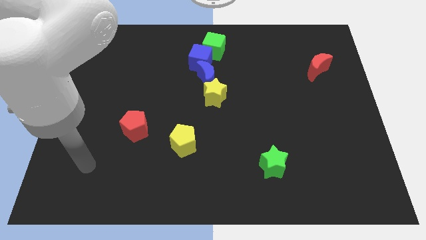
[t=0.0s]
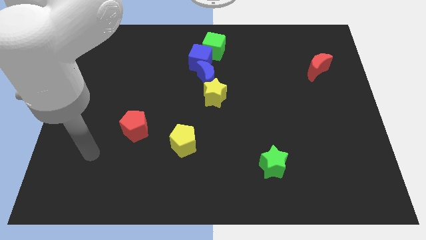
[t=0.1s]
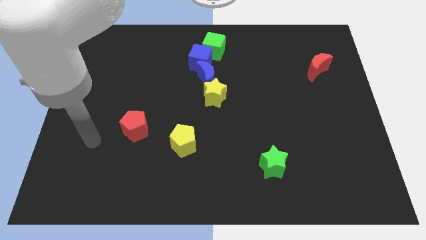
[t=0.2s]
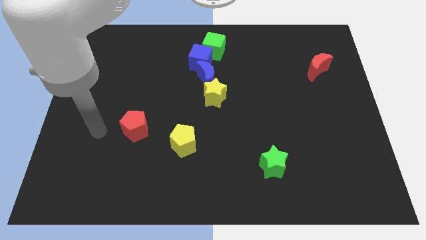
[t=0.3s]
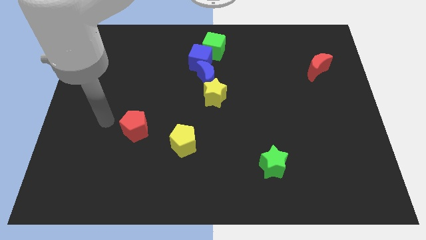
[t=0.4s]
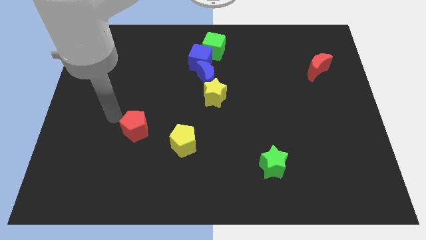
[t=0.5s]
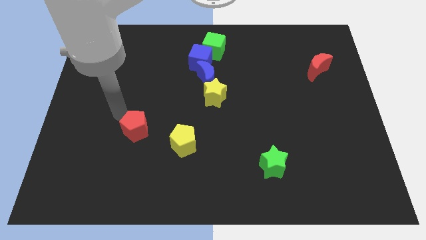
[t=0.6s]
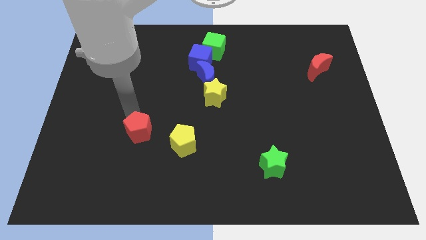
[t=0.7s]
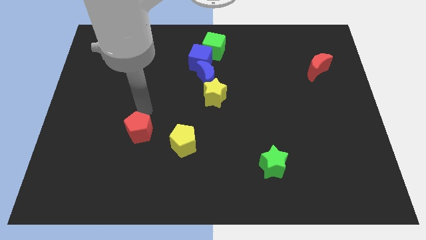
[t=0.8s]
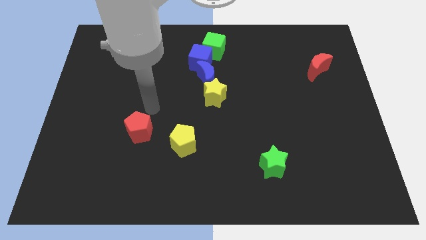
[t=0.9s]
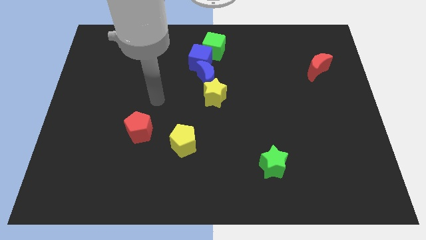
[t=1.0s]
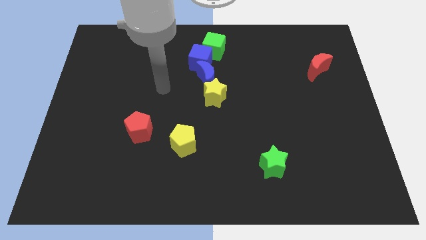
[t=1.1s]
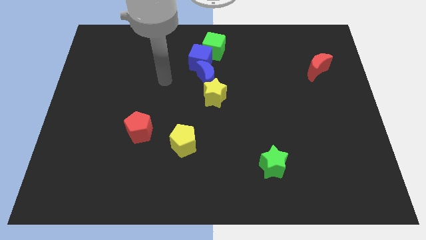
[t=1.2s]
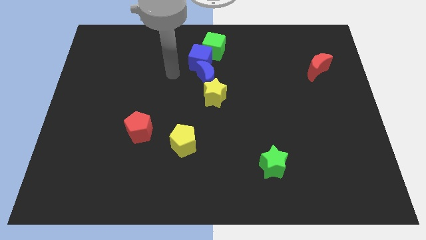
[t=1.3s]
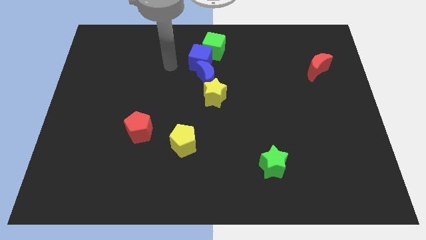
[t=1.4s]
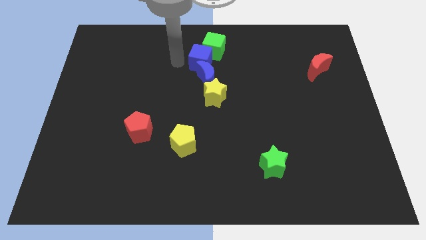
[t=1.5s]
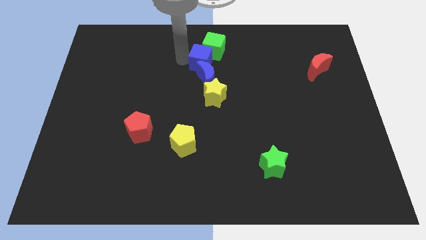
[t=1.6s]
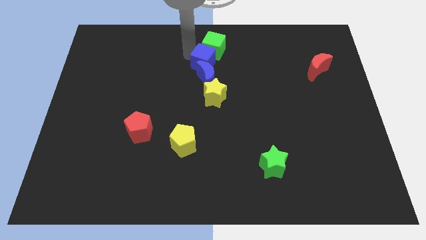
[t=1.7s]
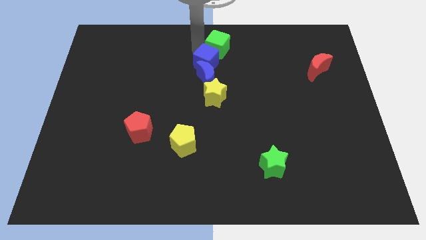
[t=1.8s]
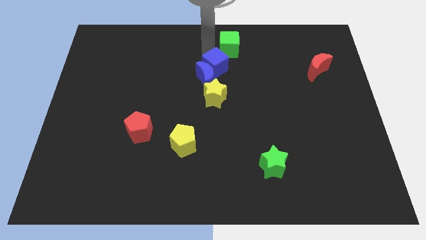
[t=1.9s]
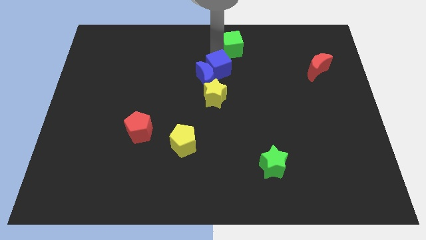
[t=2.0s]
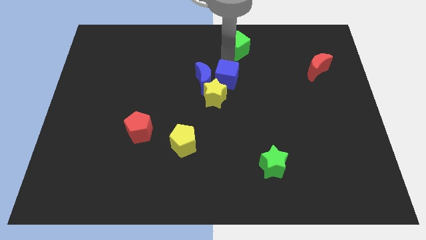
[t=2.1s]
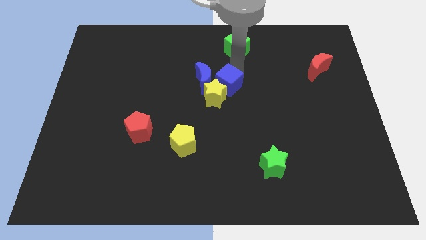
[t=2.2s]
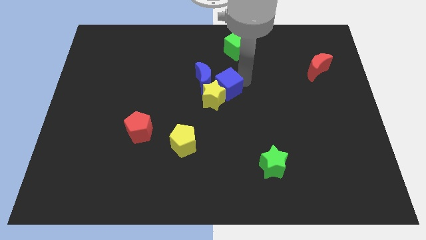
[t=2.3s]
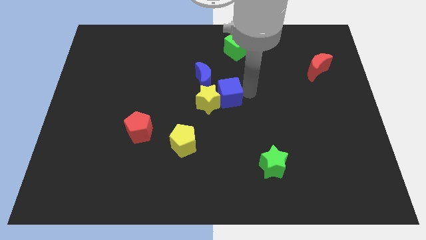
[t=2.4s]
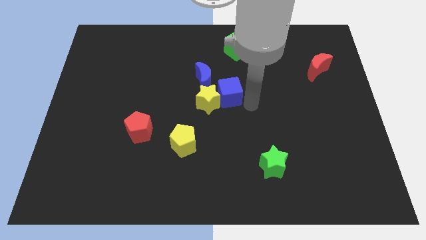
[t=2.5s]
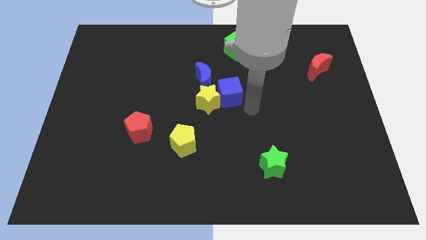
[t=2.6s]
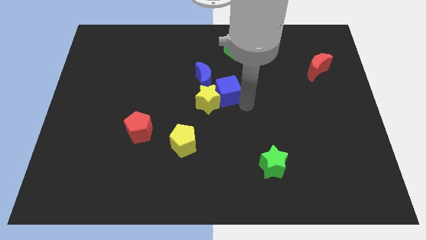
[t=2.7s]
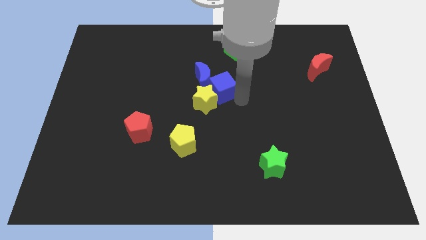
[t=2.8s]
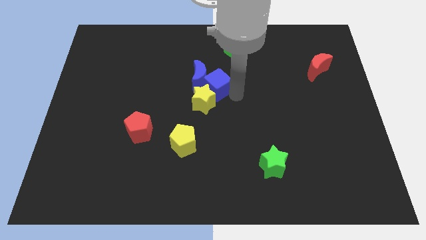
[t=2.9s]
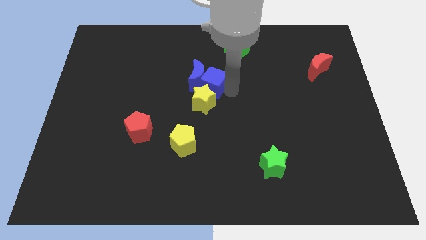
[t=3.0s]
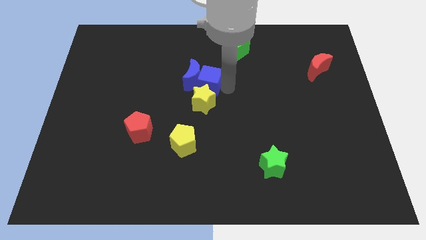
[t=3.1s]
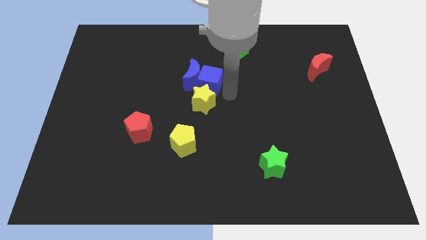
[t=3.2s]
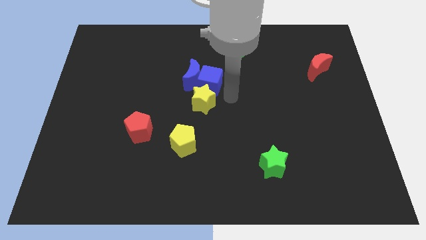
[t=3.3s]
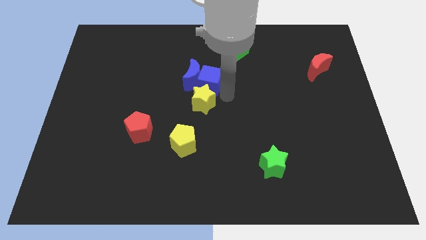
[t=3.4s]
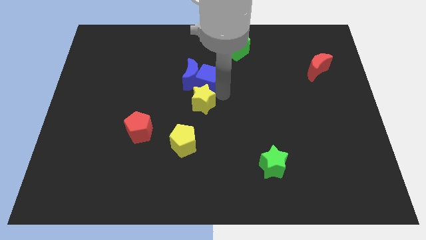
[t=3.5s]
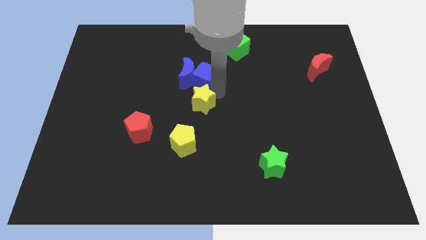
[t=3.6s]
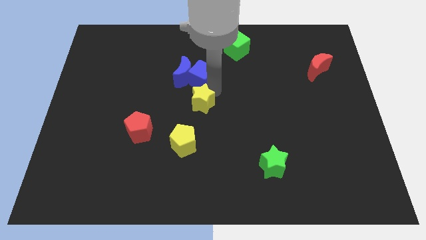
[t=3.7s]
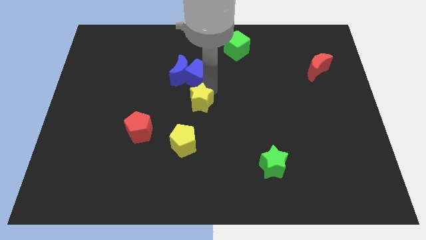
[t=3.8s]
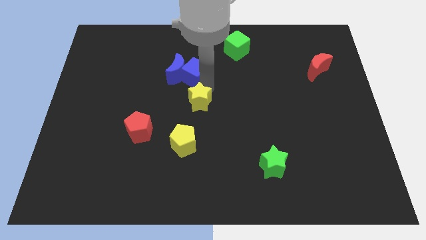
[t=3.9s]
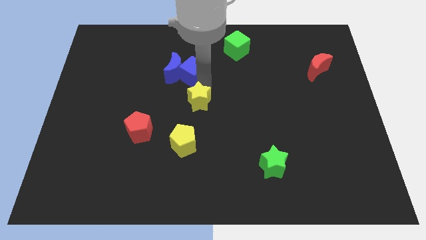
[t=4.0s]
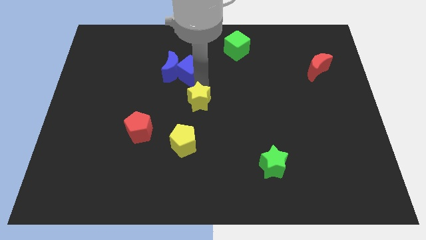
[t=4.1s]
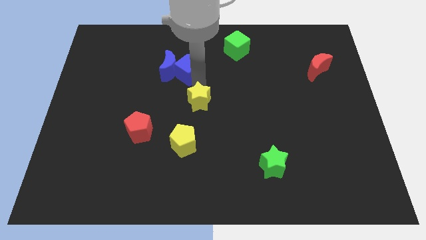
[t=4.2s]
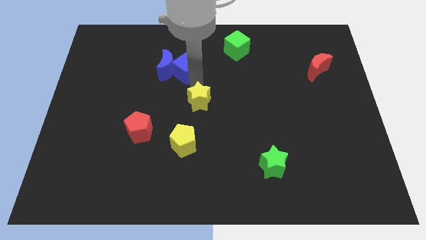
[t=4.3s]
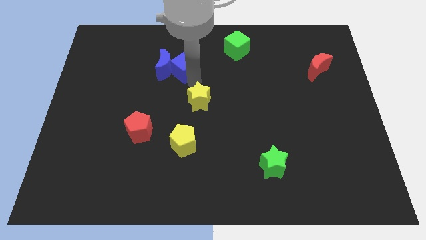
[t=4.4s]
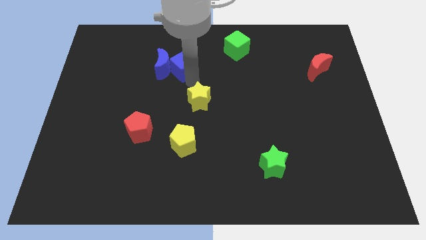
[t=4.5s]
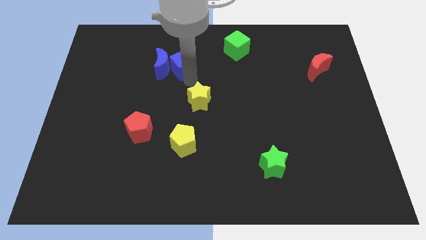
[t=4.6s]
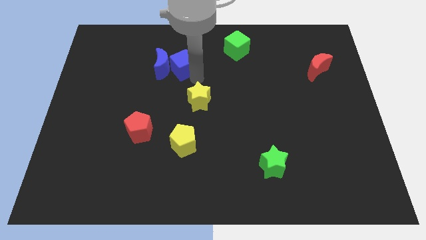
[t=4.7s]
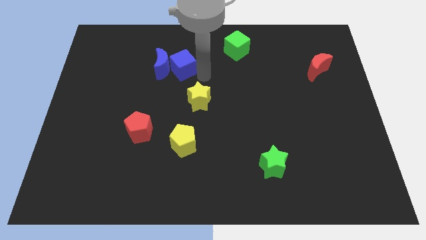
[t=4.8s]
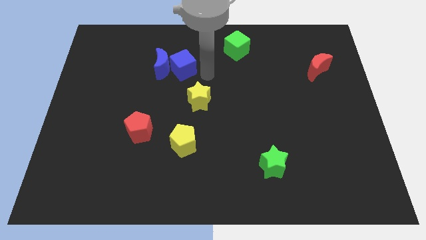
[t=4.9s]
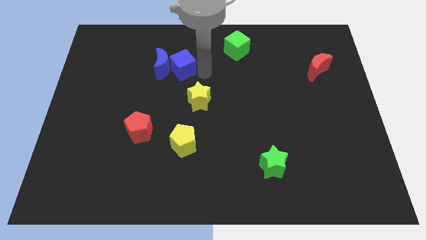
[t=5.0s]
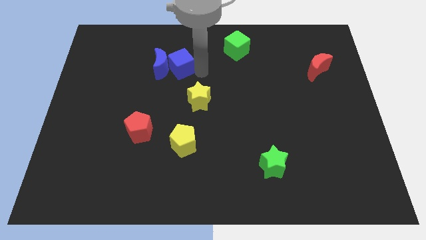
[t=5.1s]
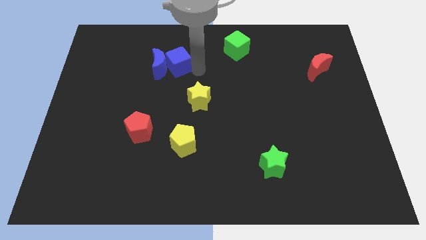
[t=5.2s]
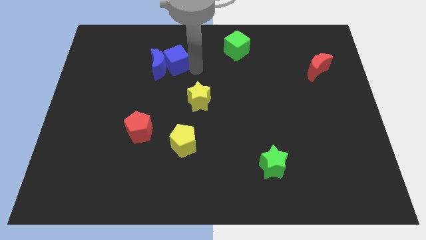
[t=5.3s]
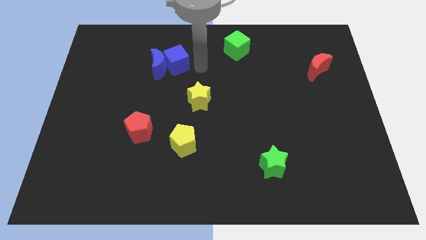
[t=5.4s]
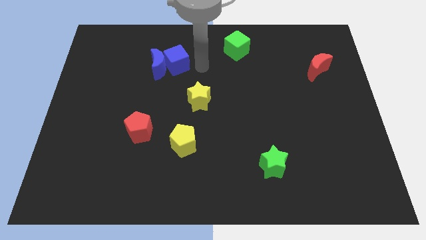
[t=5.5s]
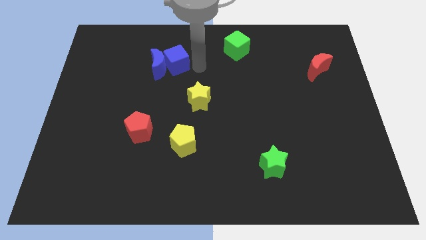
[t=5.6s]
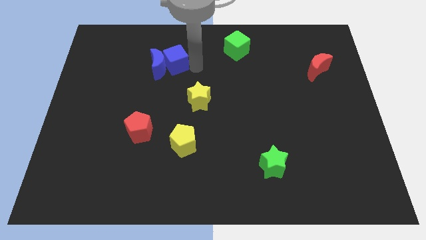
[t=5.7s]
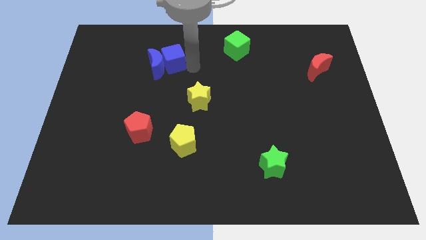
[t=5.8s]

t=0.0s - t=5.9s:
slightly slide the blue cube to the left

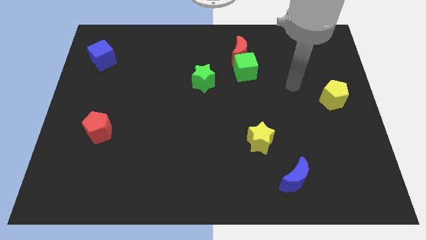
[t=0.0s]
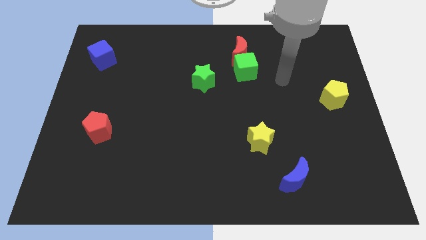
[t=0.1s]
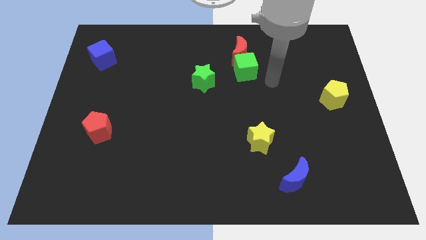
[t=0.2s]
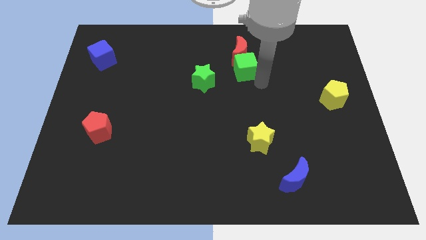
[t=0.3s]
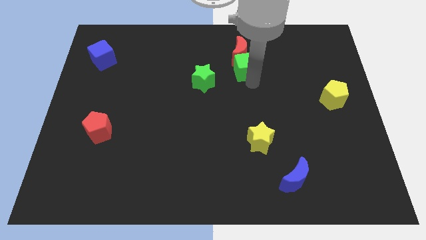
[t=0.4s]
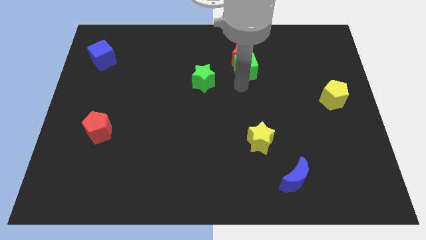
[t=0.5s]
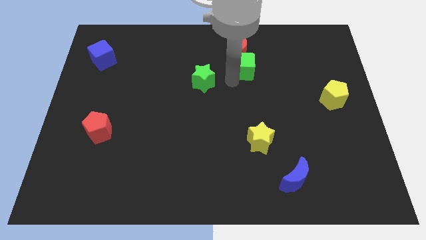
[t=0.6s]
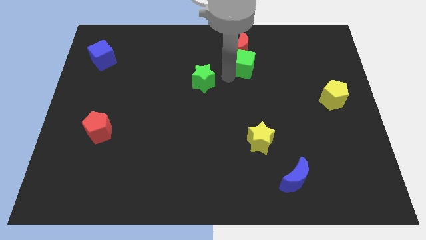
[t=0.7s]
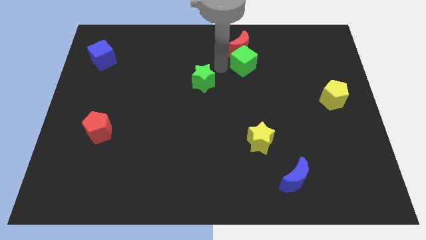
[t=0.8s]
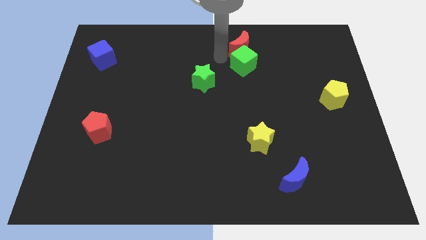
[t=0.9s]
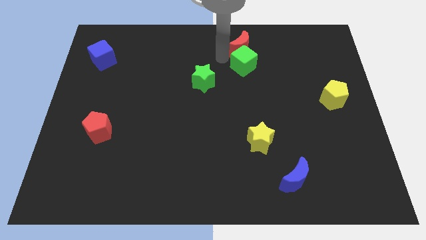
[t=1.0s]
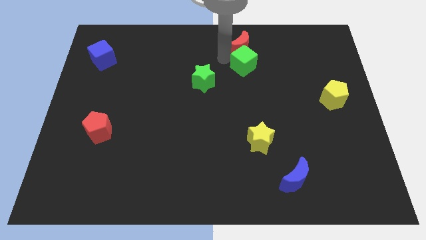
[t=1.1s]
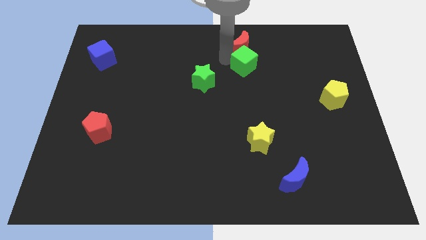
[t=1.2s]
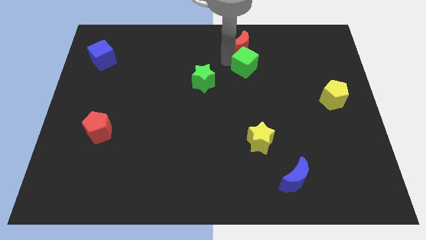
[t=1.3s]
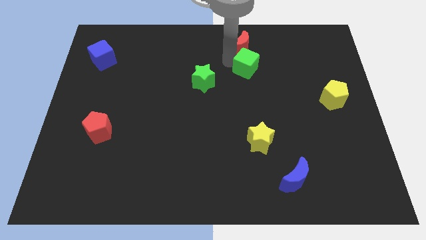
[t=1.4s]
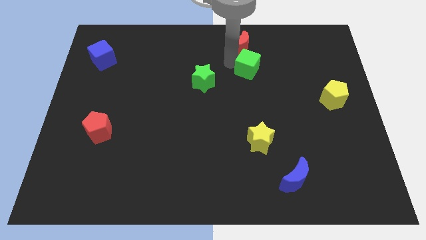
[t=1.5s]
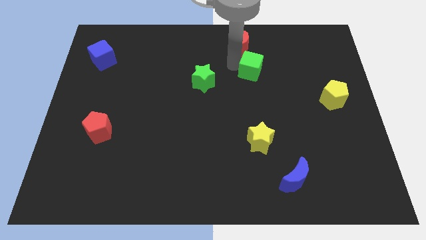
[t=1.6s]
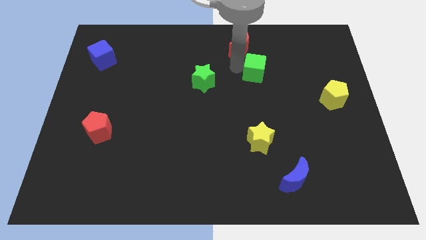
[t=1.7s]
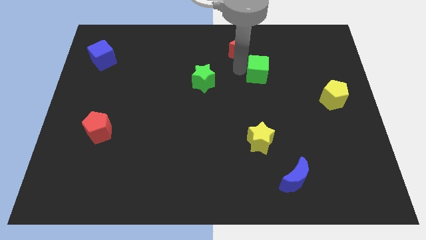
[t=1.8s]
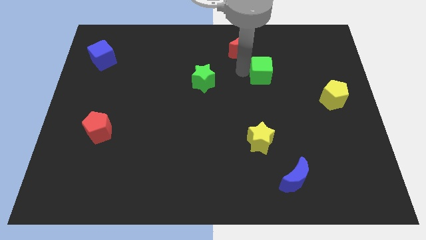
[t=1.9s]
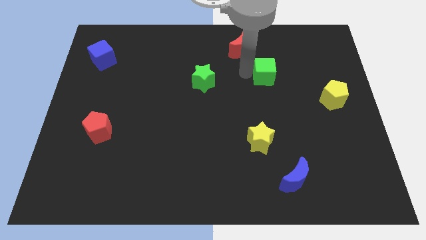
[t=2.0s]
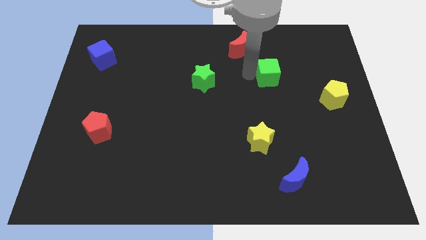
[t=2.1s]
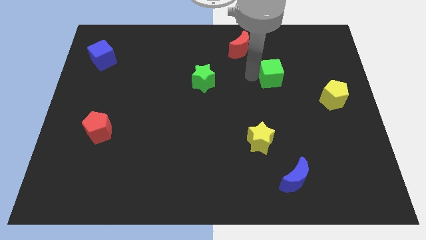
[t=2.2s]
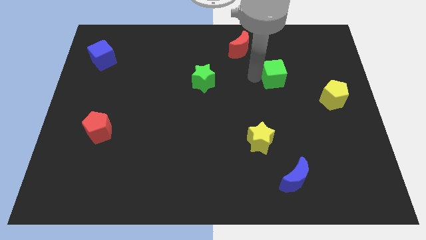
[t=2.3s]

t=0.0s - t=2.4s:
push the green cube to the right a little
